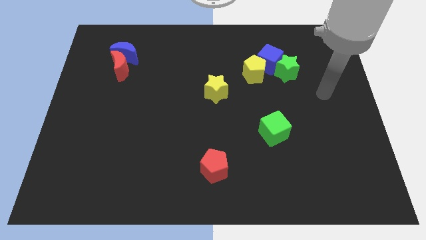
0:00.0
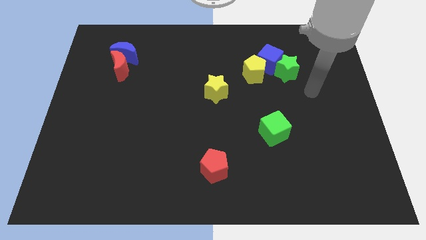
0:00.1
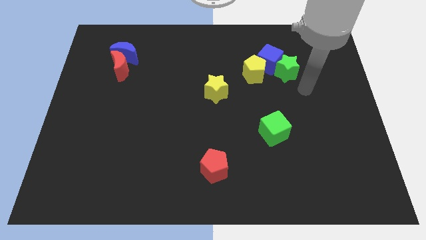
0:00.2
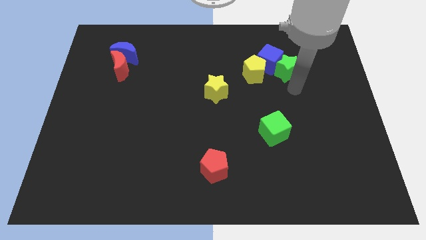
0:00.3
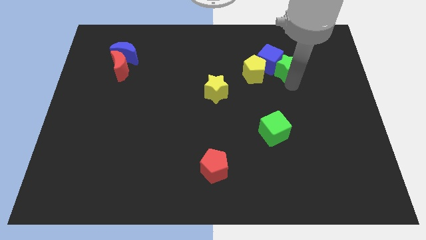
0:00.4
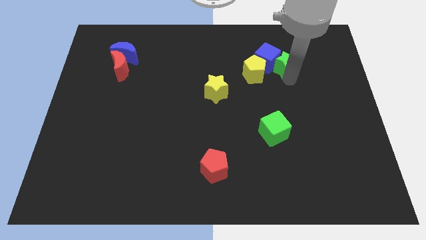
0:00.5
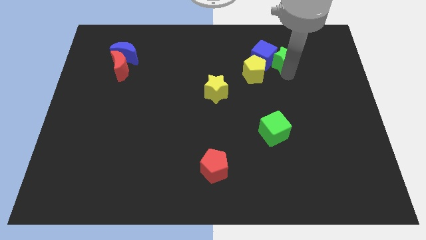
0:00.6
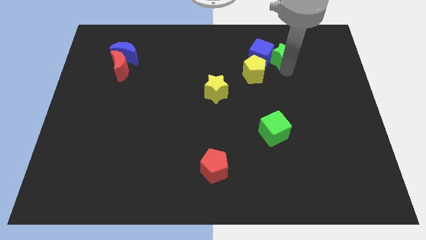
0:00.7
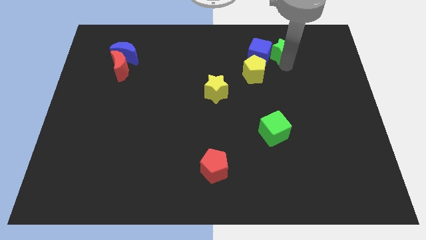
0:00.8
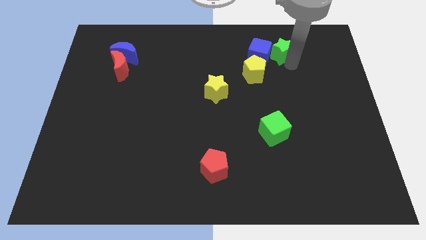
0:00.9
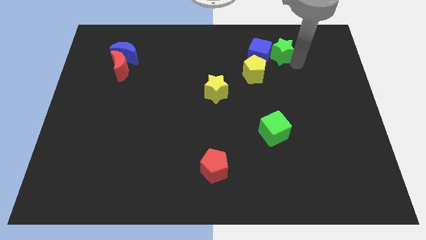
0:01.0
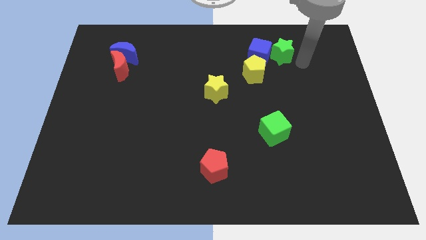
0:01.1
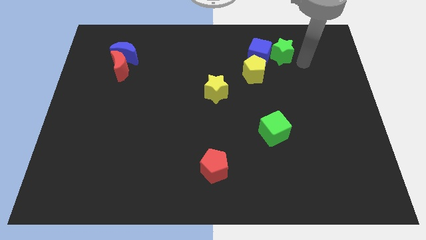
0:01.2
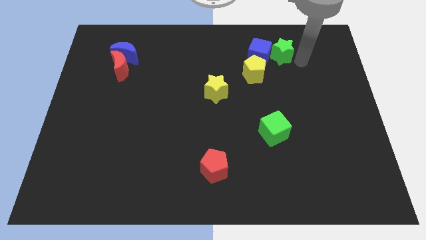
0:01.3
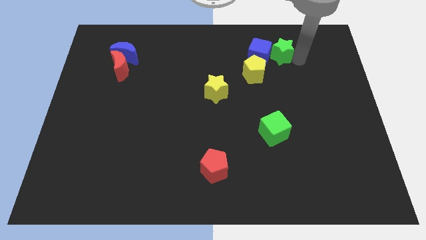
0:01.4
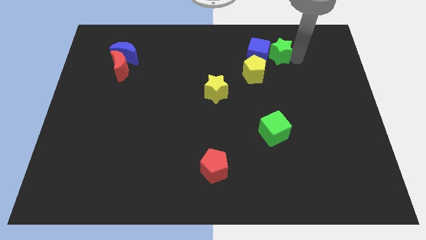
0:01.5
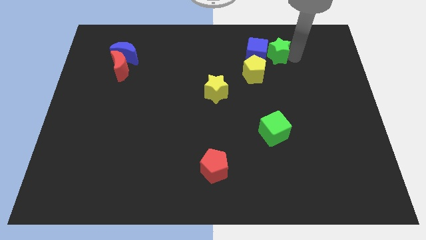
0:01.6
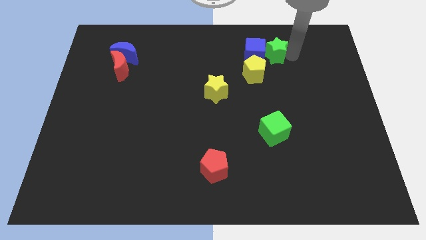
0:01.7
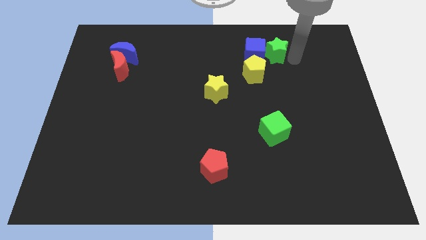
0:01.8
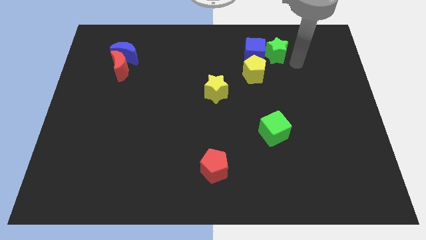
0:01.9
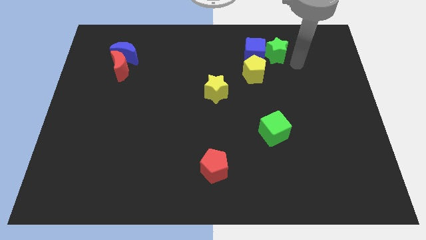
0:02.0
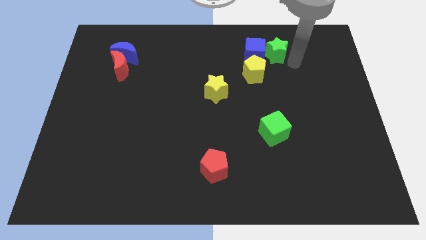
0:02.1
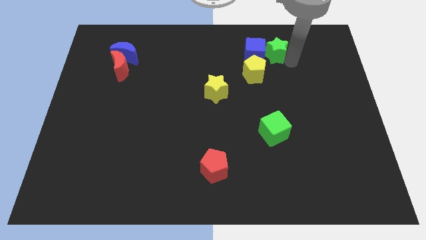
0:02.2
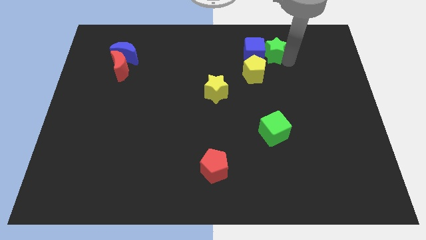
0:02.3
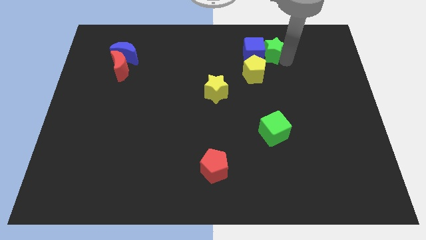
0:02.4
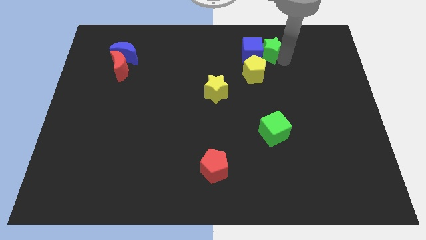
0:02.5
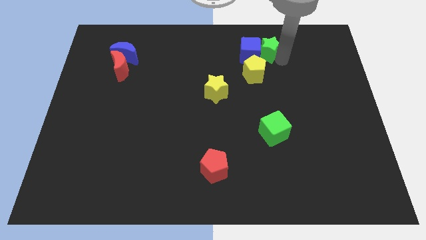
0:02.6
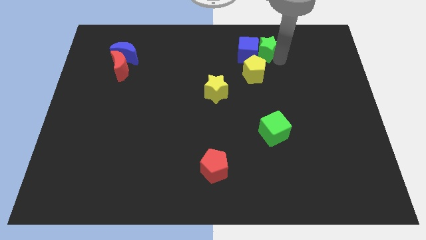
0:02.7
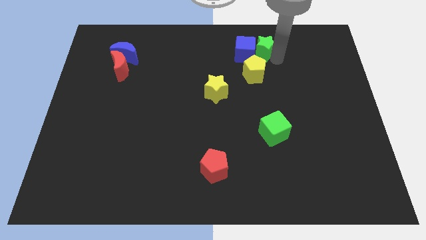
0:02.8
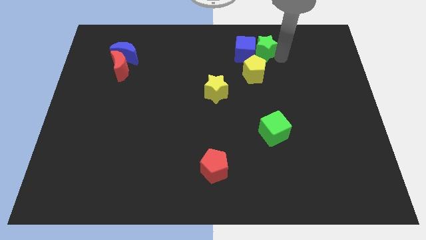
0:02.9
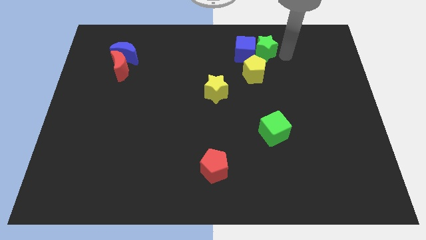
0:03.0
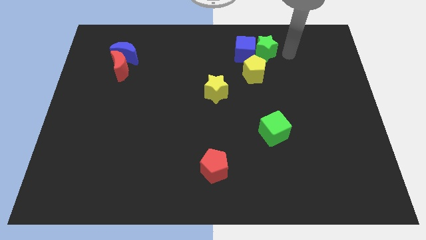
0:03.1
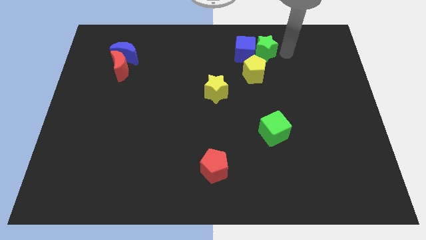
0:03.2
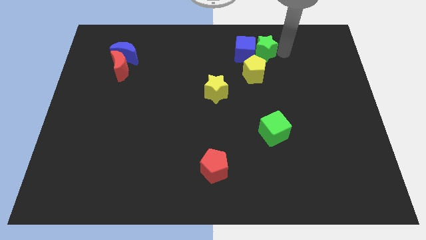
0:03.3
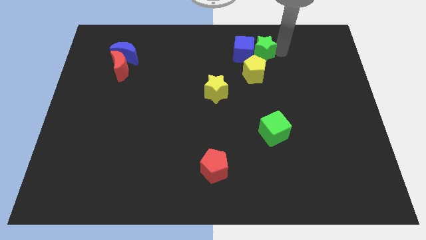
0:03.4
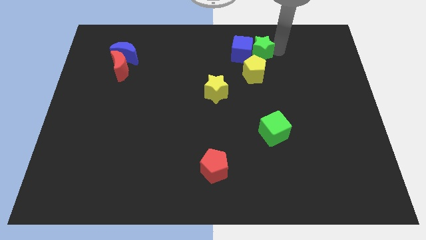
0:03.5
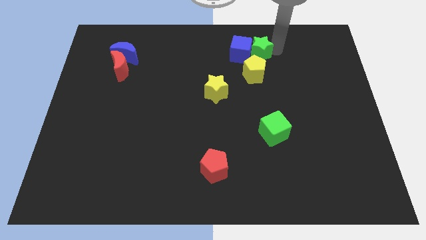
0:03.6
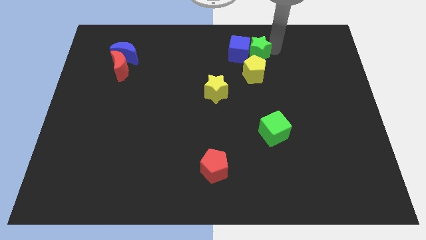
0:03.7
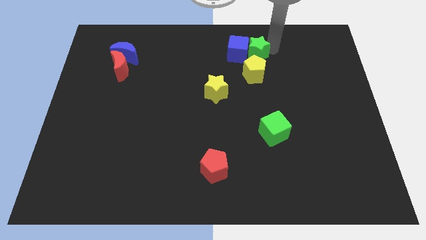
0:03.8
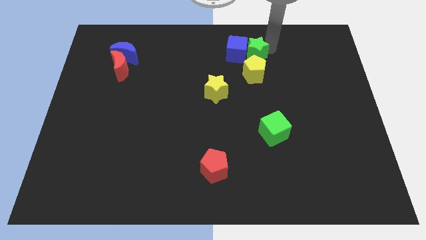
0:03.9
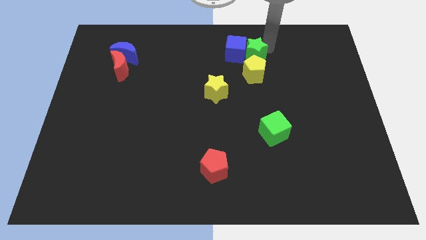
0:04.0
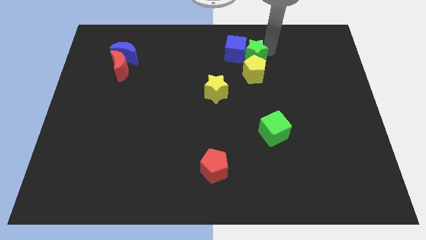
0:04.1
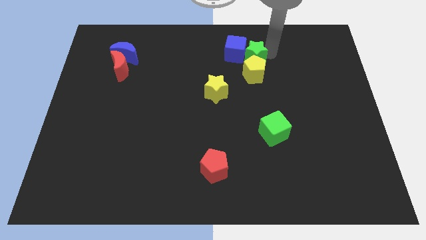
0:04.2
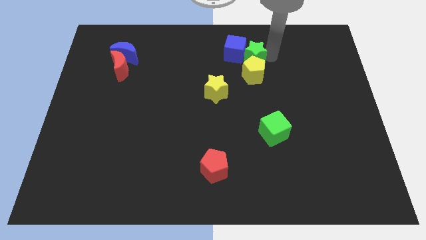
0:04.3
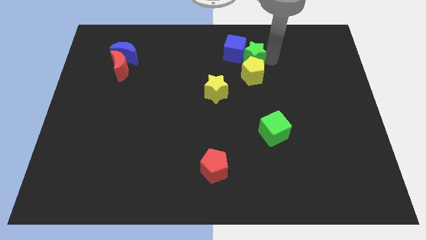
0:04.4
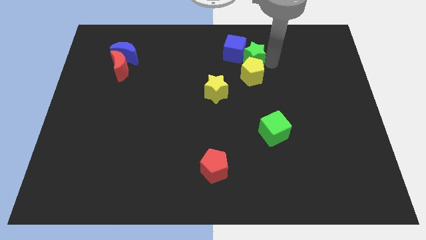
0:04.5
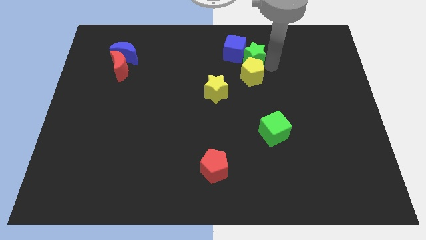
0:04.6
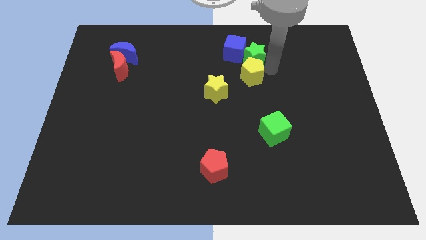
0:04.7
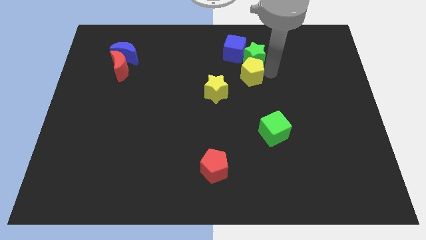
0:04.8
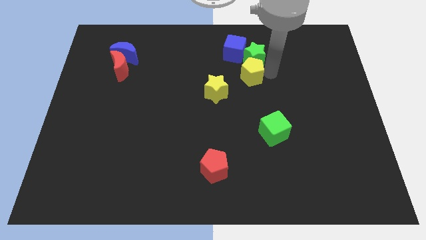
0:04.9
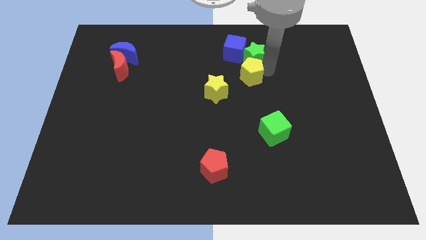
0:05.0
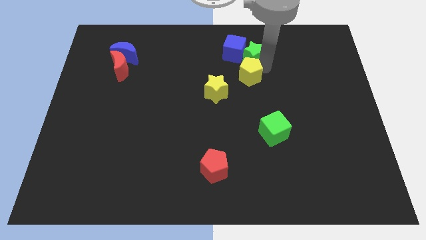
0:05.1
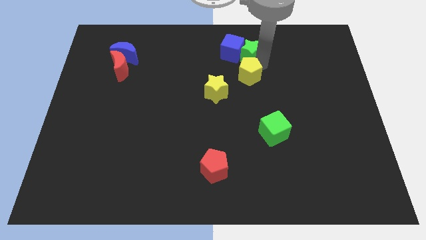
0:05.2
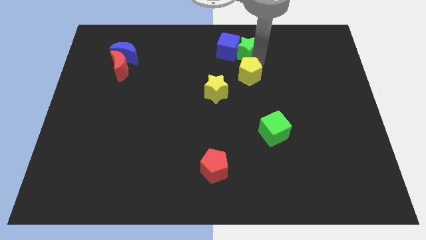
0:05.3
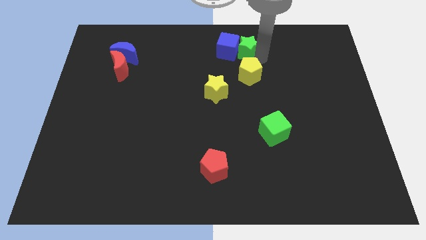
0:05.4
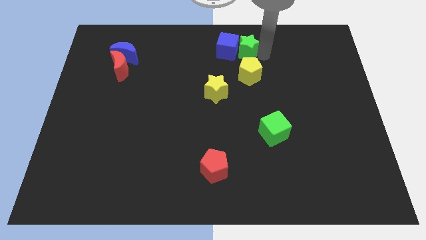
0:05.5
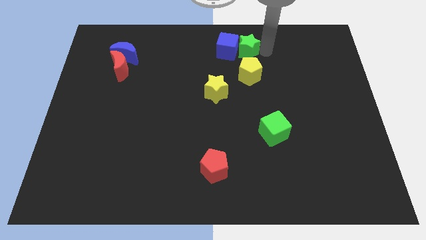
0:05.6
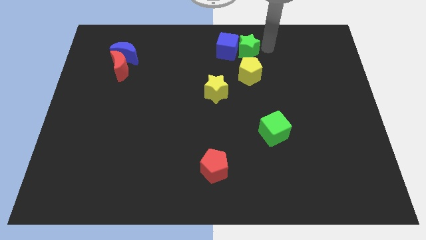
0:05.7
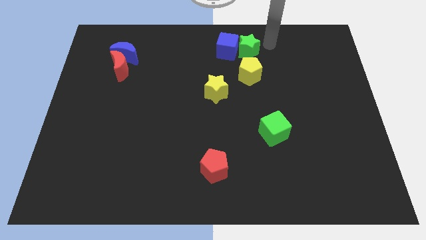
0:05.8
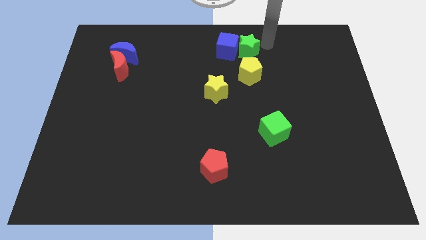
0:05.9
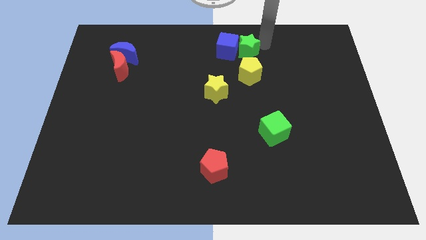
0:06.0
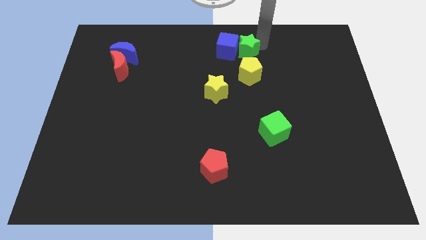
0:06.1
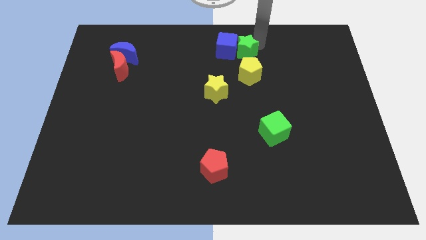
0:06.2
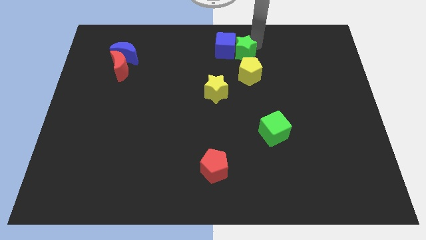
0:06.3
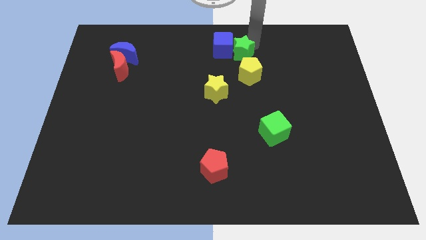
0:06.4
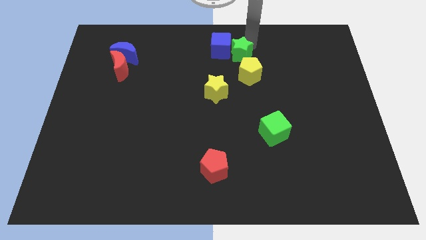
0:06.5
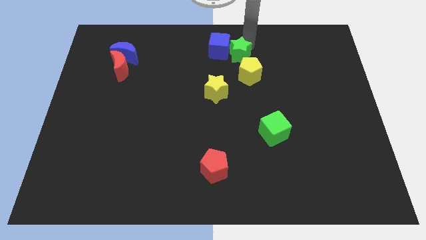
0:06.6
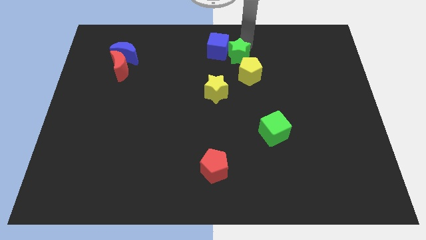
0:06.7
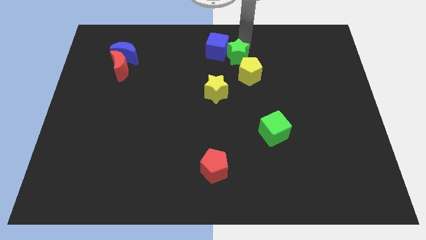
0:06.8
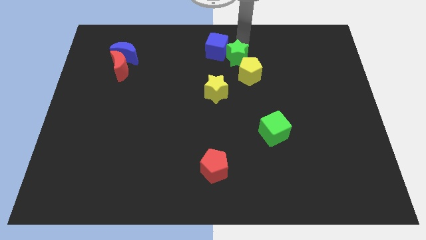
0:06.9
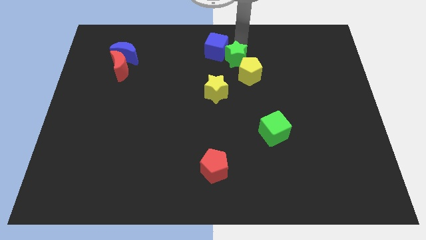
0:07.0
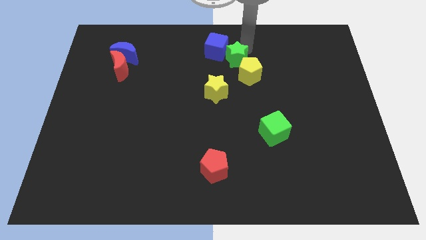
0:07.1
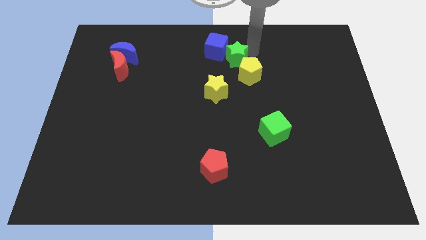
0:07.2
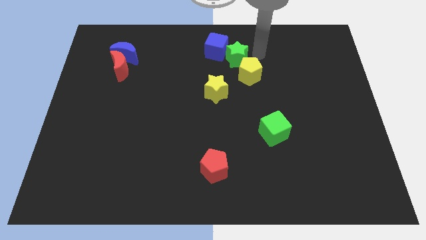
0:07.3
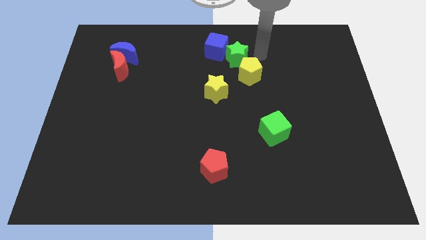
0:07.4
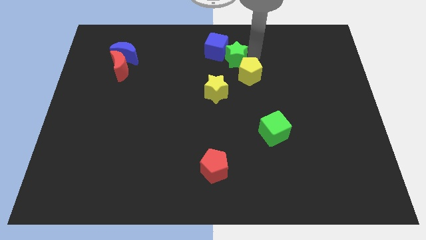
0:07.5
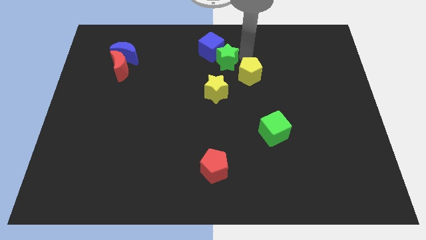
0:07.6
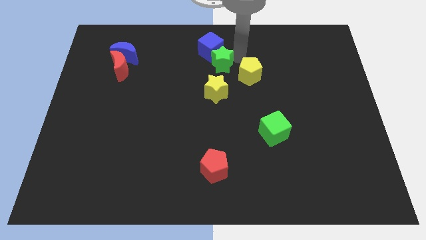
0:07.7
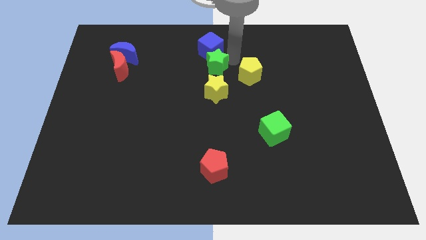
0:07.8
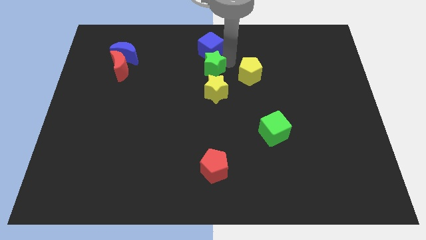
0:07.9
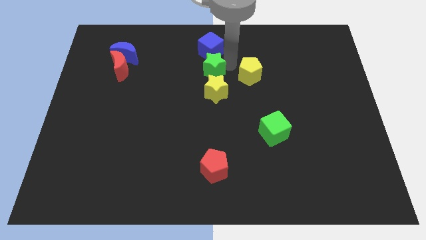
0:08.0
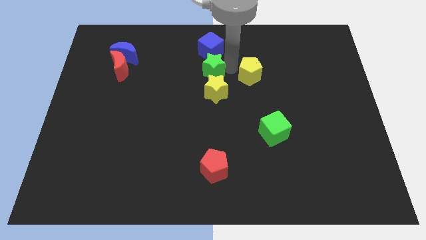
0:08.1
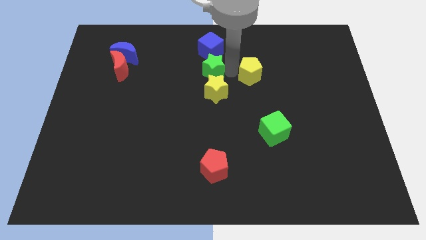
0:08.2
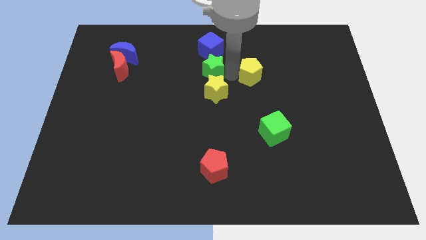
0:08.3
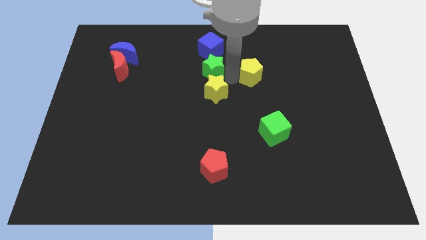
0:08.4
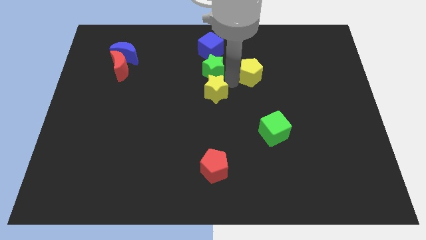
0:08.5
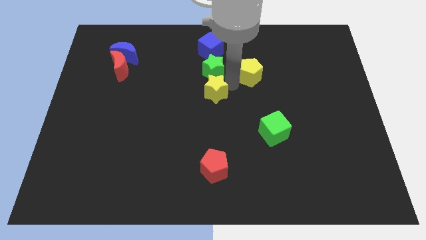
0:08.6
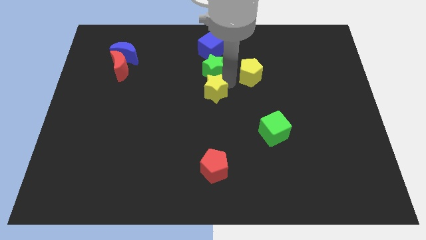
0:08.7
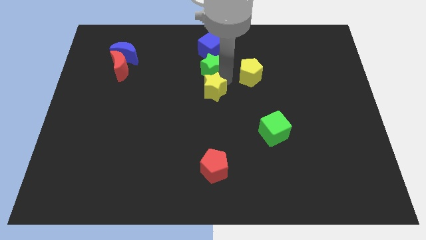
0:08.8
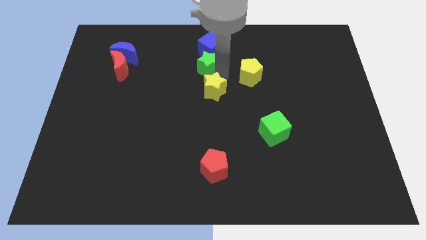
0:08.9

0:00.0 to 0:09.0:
move the green star to the left
